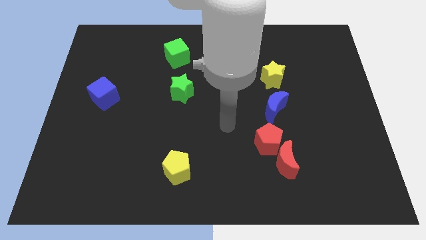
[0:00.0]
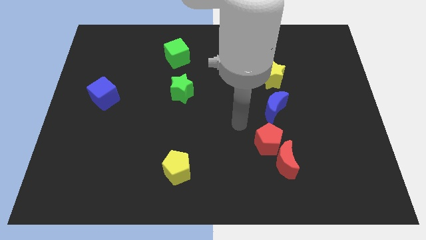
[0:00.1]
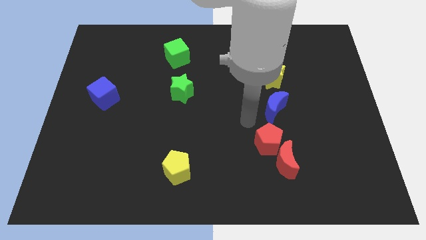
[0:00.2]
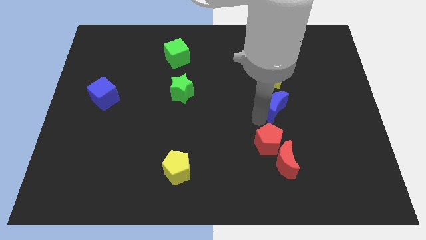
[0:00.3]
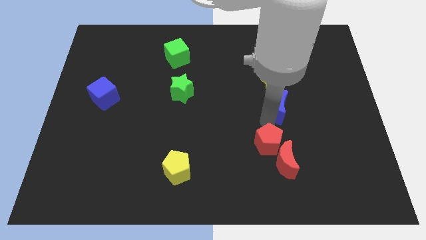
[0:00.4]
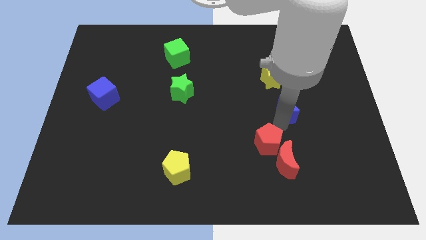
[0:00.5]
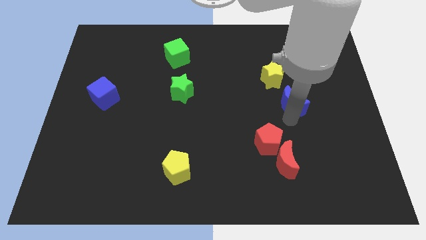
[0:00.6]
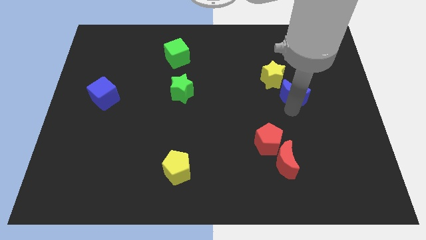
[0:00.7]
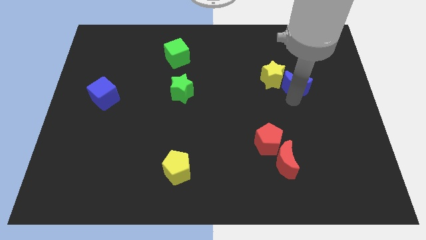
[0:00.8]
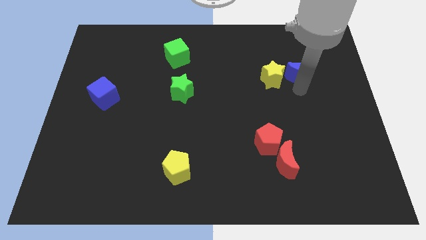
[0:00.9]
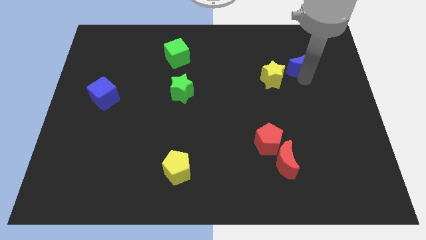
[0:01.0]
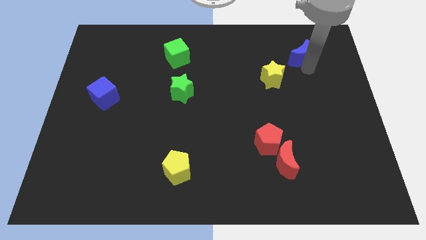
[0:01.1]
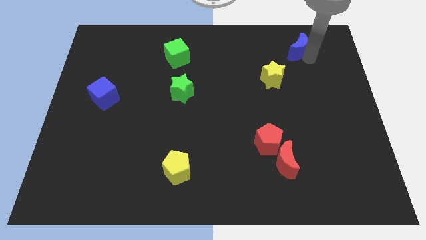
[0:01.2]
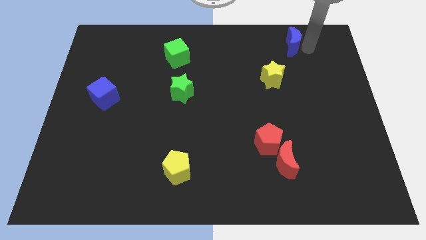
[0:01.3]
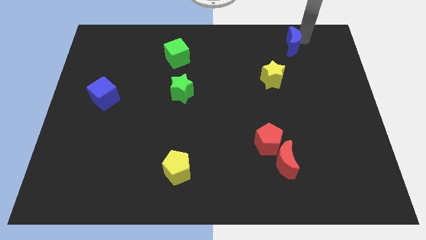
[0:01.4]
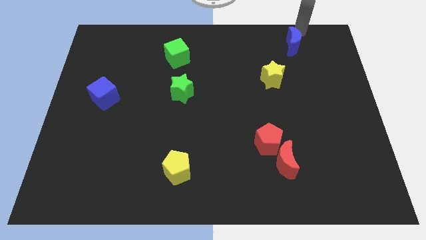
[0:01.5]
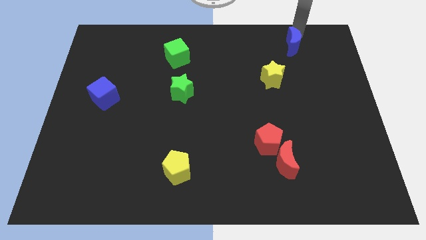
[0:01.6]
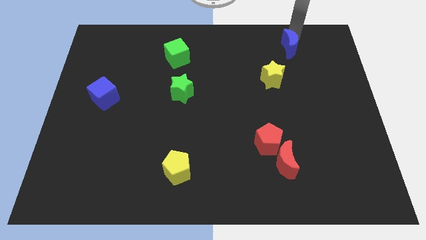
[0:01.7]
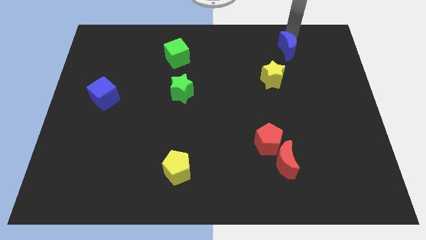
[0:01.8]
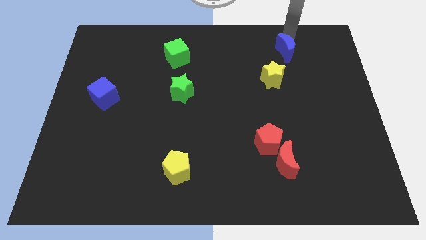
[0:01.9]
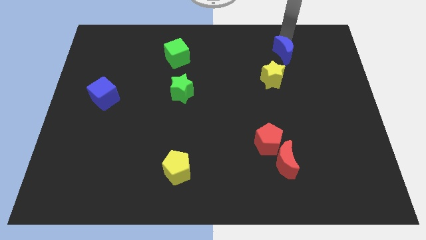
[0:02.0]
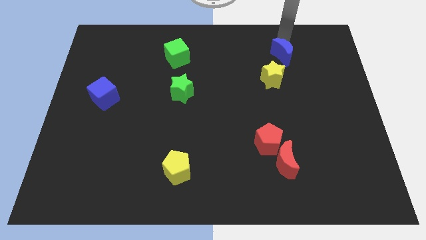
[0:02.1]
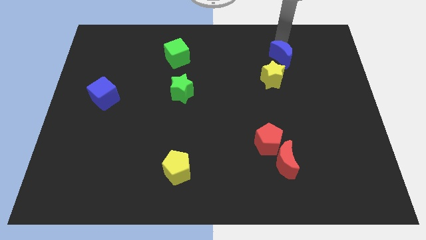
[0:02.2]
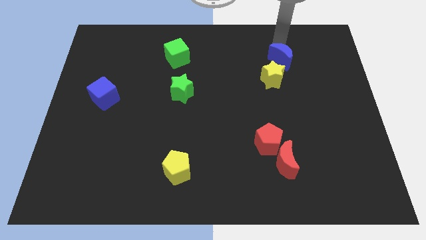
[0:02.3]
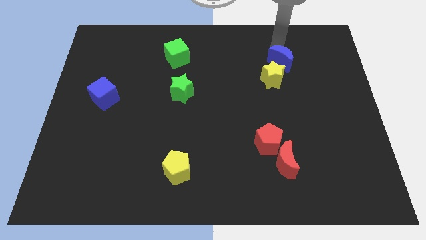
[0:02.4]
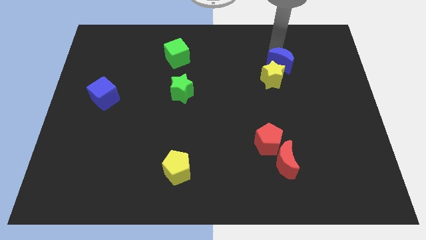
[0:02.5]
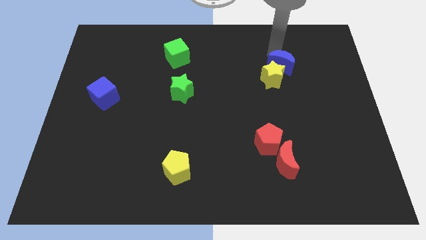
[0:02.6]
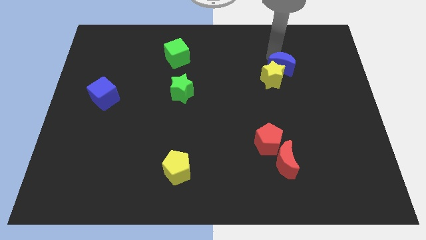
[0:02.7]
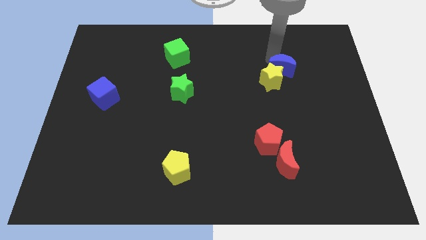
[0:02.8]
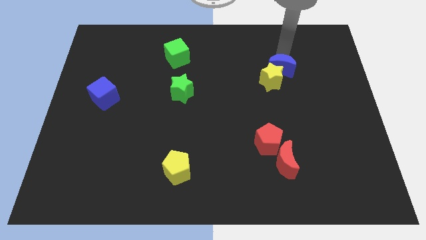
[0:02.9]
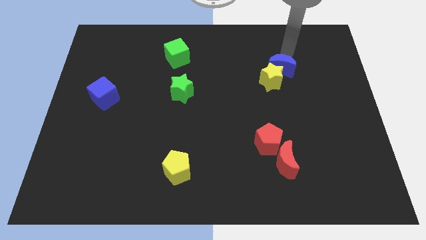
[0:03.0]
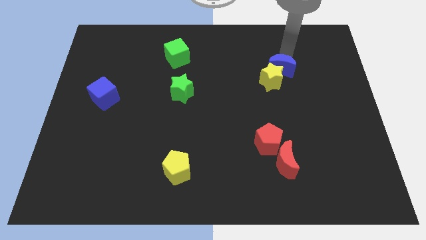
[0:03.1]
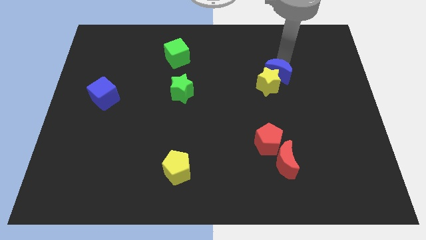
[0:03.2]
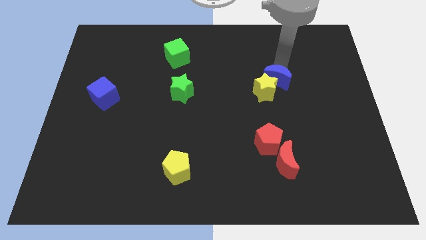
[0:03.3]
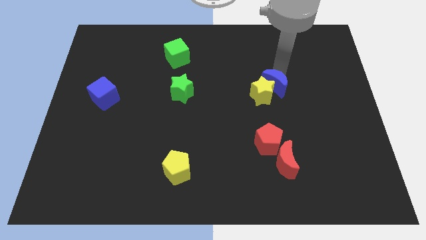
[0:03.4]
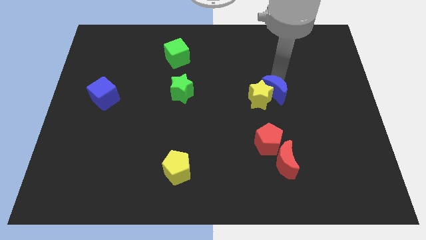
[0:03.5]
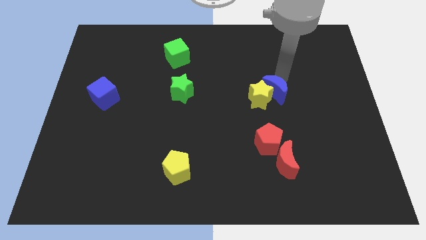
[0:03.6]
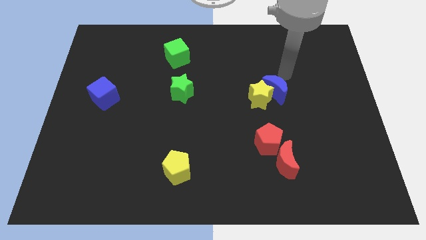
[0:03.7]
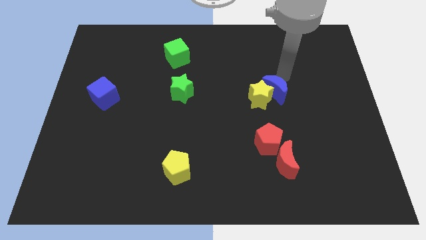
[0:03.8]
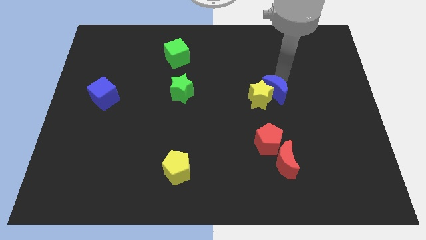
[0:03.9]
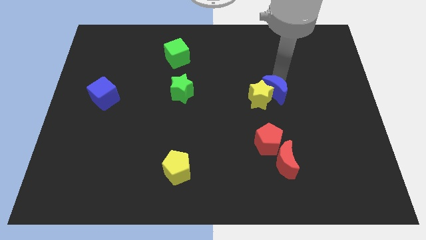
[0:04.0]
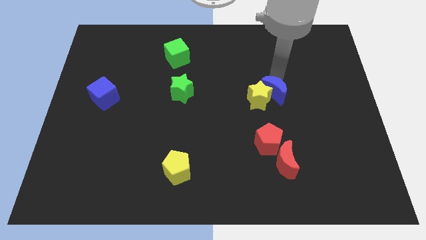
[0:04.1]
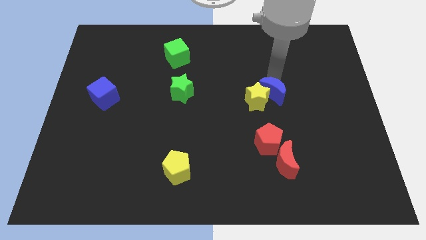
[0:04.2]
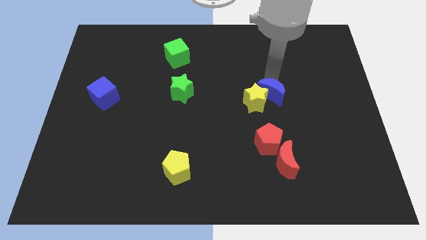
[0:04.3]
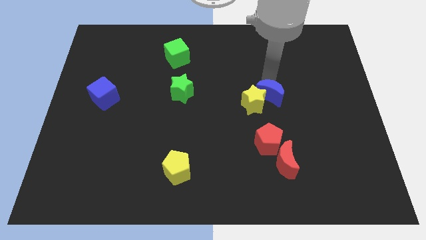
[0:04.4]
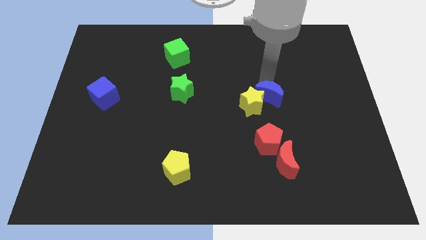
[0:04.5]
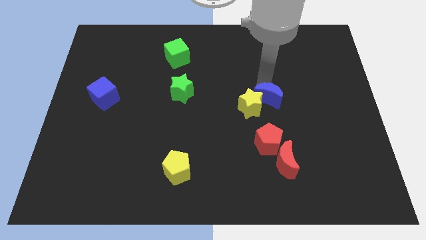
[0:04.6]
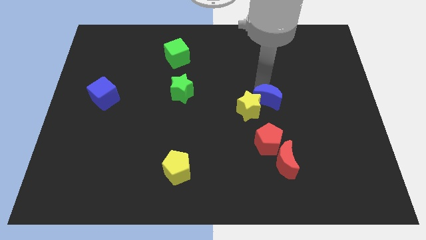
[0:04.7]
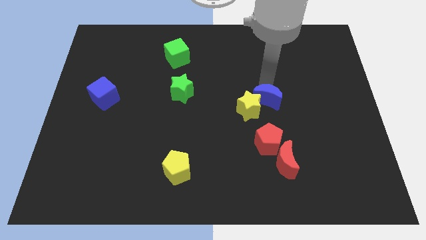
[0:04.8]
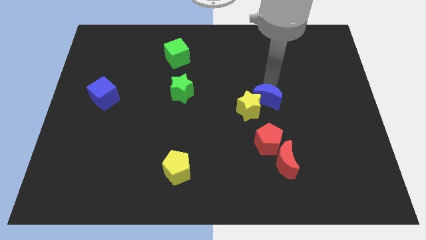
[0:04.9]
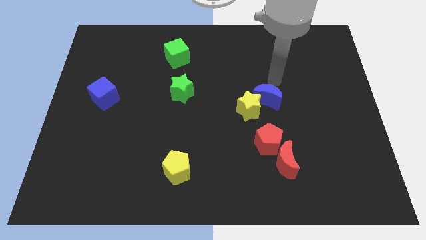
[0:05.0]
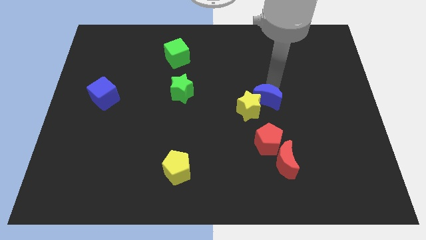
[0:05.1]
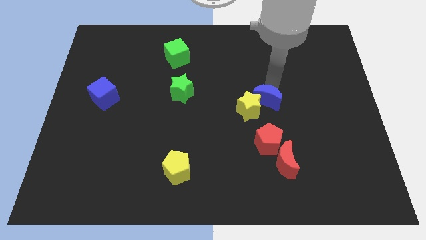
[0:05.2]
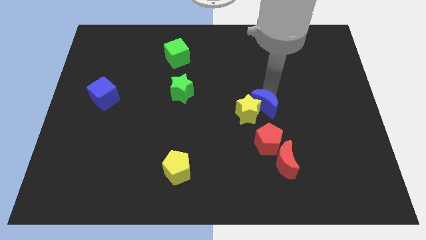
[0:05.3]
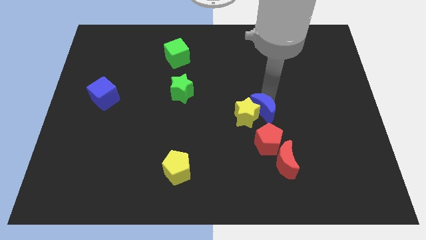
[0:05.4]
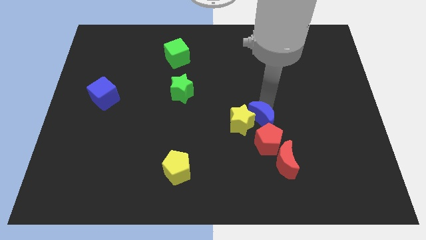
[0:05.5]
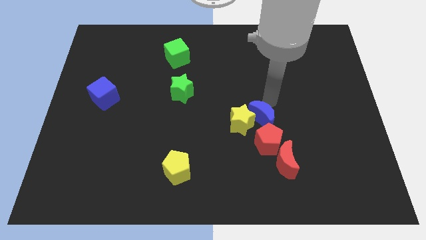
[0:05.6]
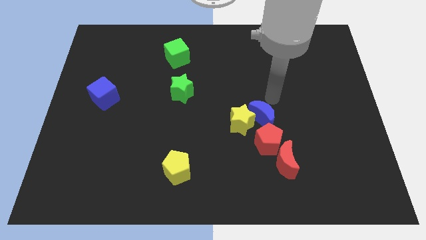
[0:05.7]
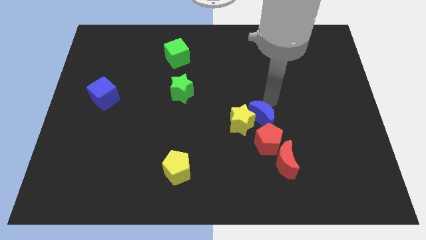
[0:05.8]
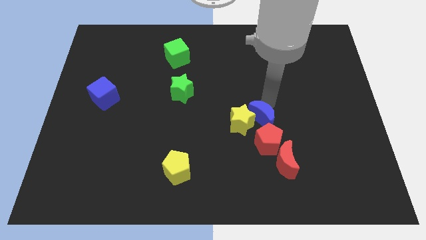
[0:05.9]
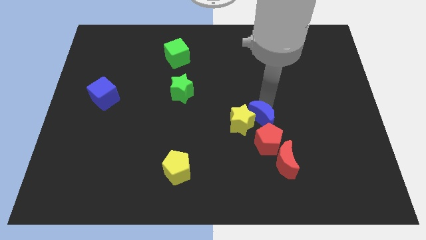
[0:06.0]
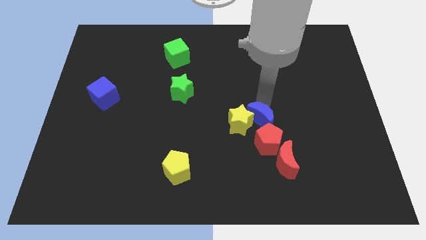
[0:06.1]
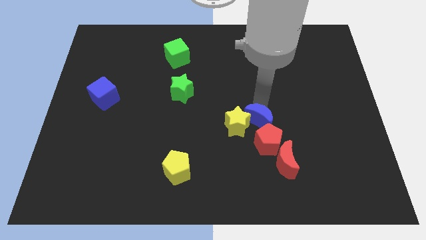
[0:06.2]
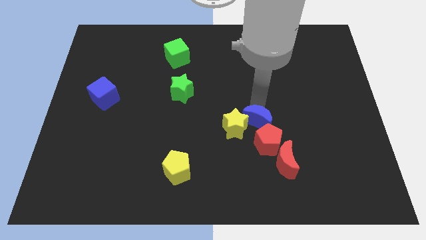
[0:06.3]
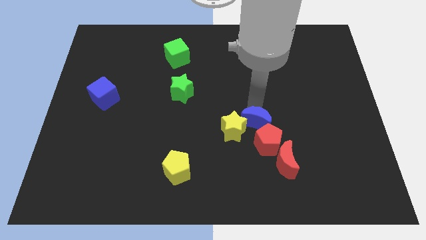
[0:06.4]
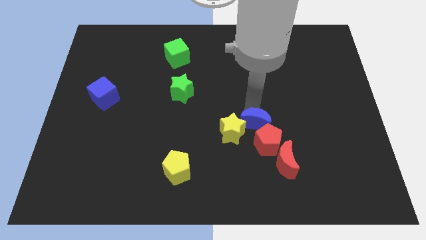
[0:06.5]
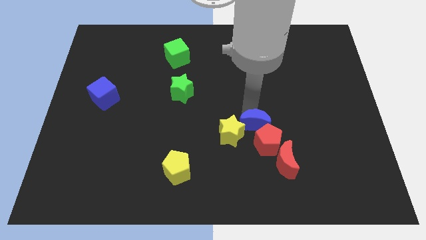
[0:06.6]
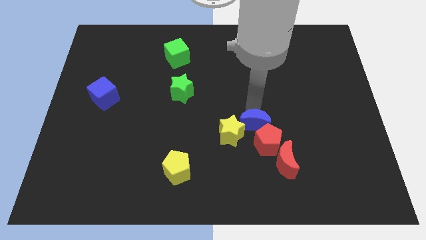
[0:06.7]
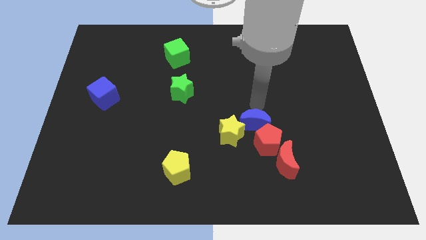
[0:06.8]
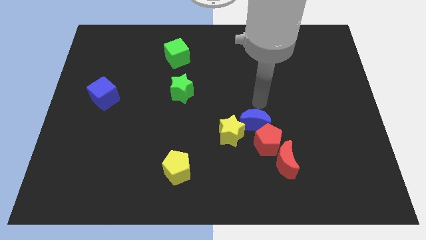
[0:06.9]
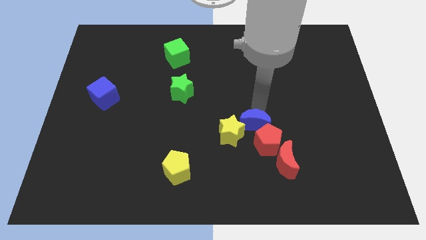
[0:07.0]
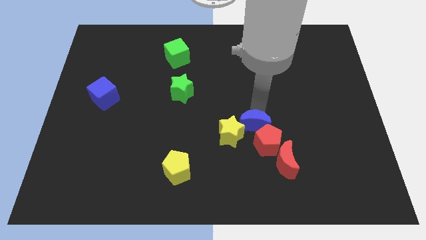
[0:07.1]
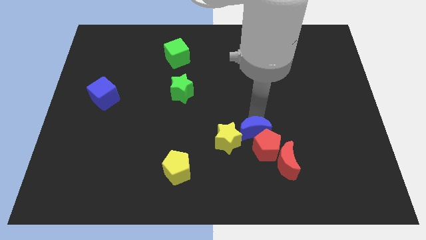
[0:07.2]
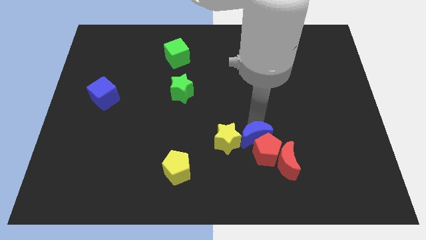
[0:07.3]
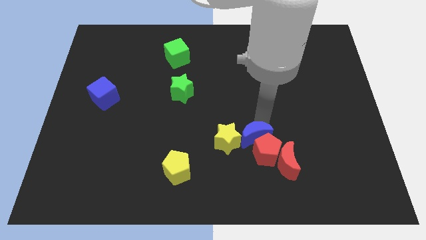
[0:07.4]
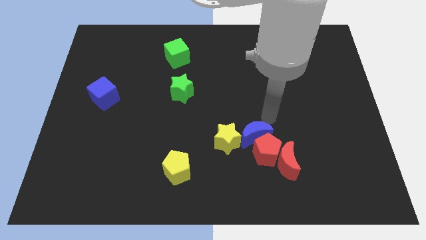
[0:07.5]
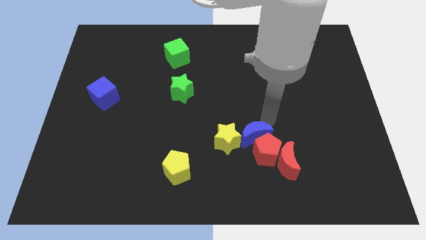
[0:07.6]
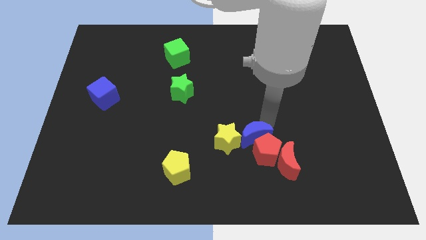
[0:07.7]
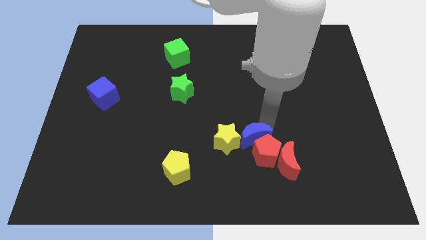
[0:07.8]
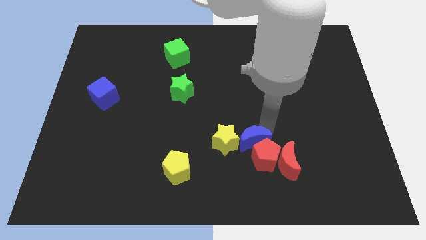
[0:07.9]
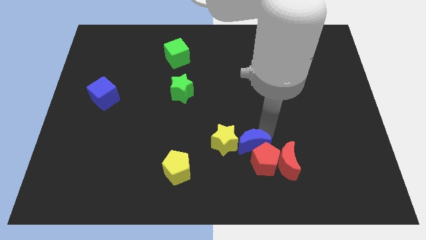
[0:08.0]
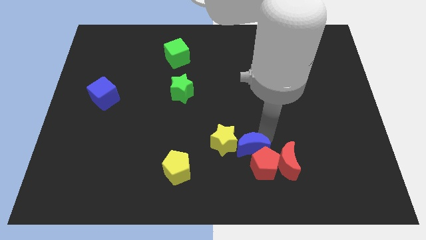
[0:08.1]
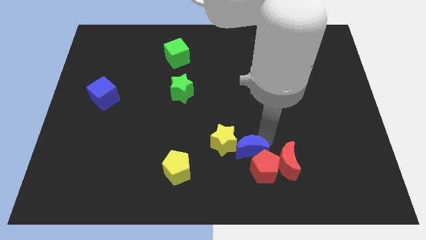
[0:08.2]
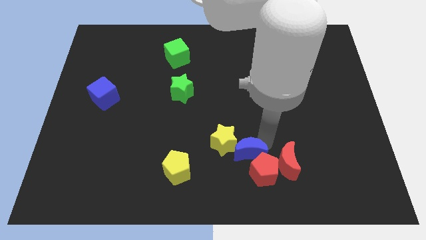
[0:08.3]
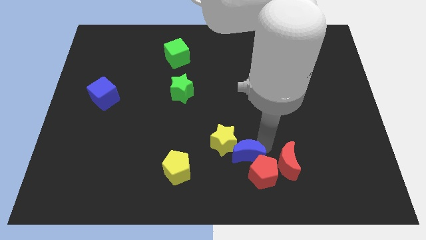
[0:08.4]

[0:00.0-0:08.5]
push the blue moon right of the yellow pentagon
